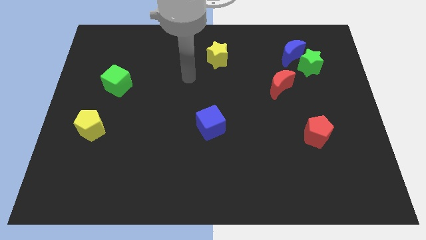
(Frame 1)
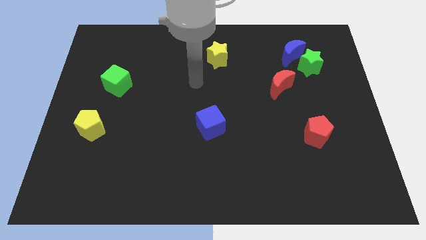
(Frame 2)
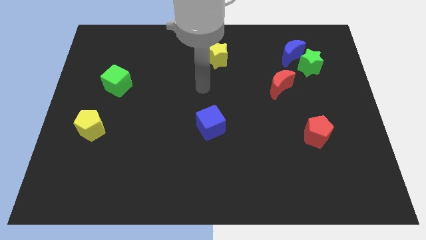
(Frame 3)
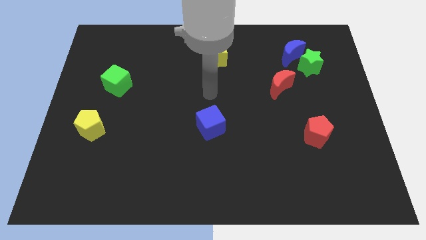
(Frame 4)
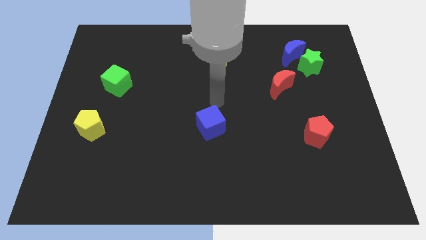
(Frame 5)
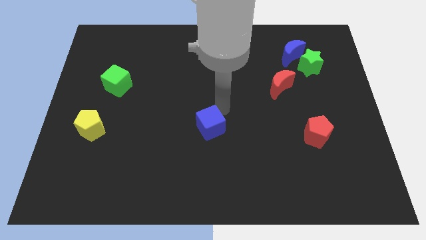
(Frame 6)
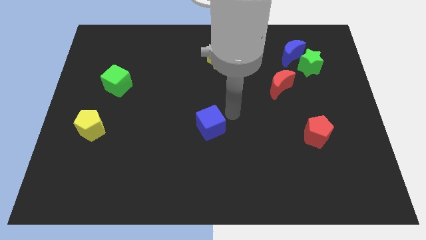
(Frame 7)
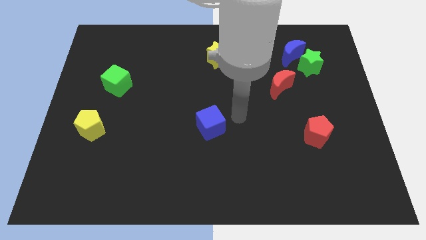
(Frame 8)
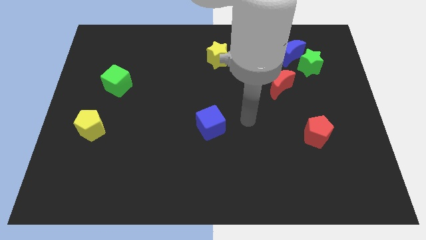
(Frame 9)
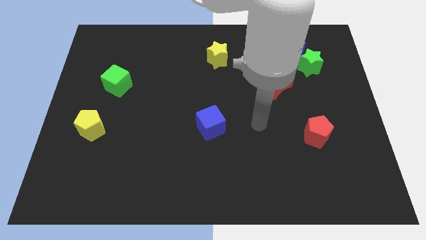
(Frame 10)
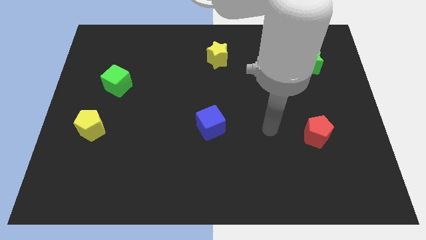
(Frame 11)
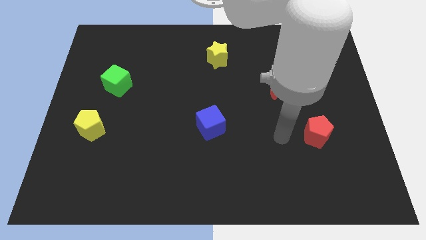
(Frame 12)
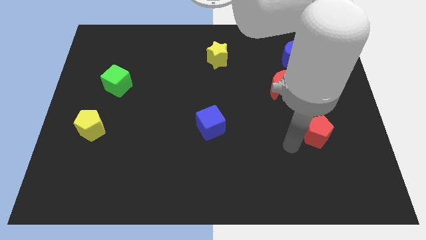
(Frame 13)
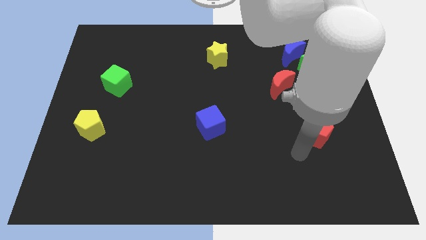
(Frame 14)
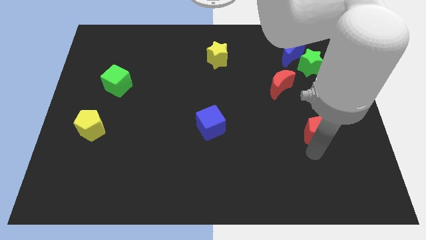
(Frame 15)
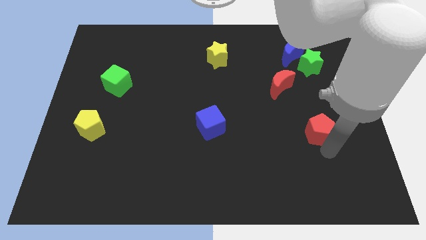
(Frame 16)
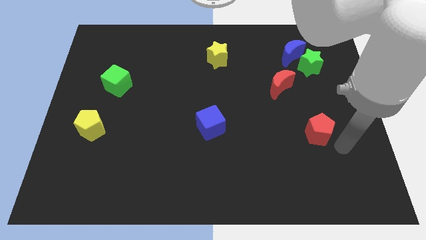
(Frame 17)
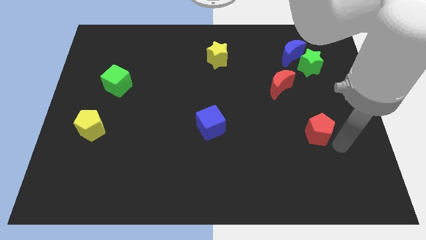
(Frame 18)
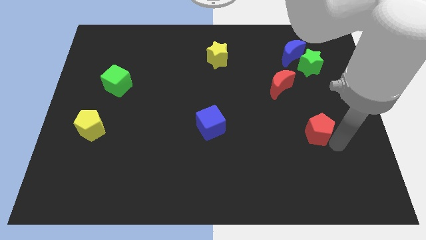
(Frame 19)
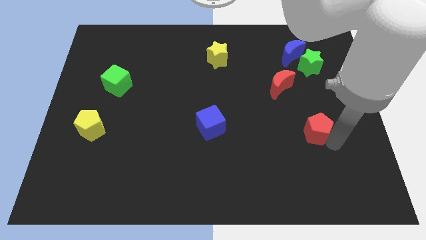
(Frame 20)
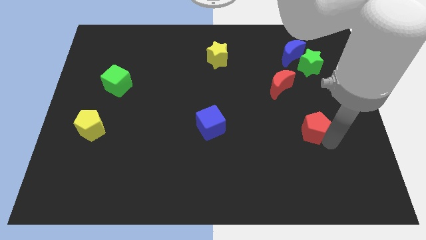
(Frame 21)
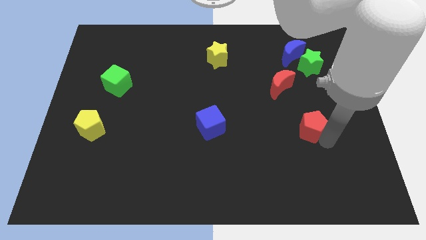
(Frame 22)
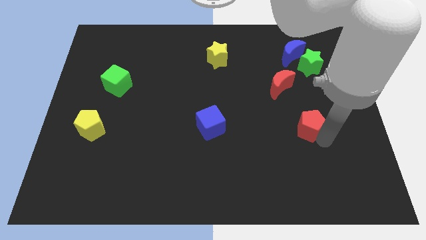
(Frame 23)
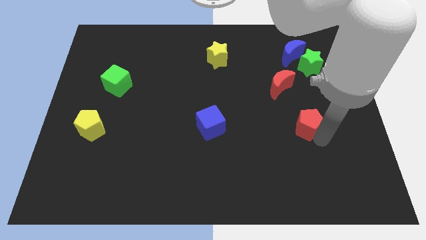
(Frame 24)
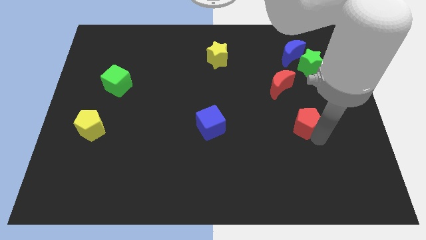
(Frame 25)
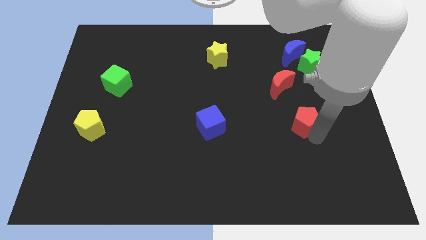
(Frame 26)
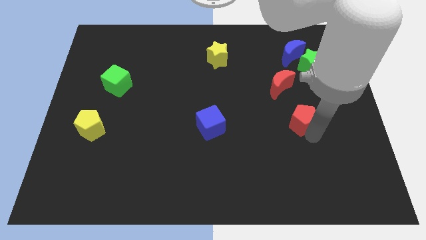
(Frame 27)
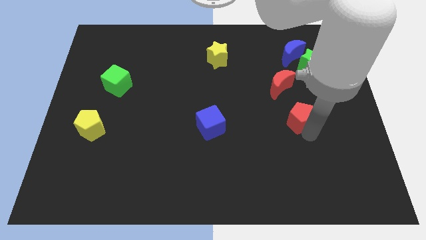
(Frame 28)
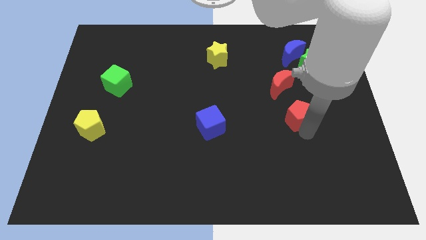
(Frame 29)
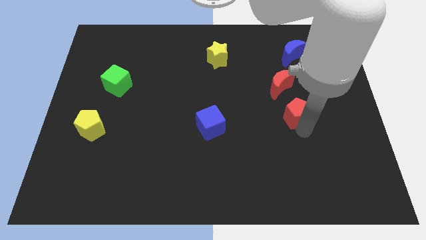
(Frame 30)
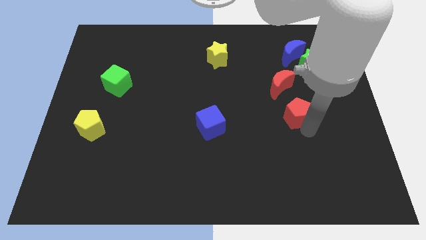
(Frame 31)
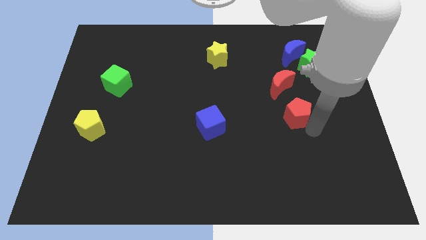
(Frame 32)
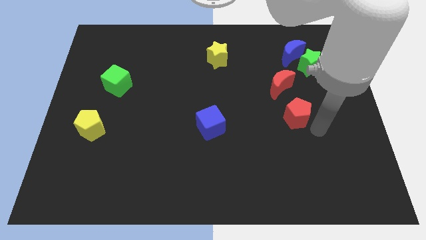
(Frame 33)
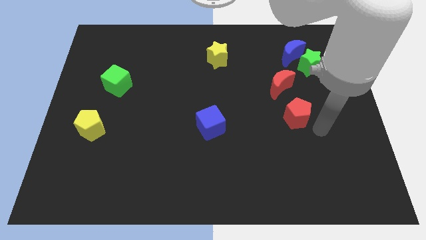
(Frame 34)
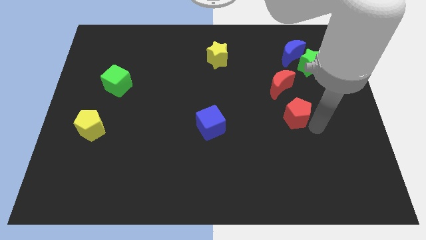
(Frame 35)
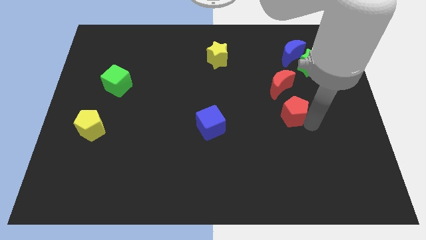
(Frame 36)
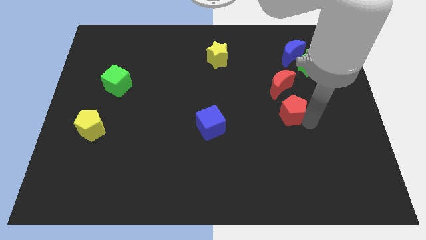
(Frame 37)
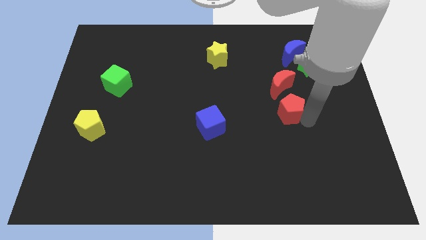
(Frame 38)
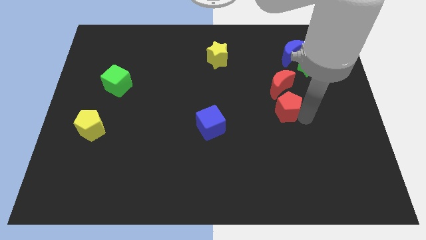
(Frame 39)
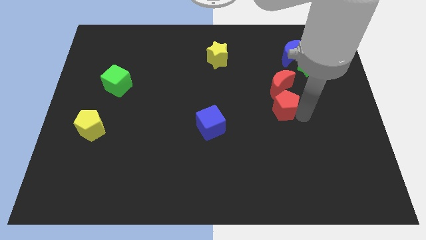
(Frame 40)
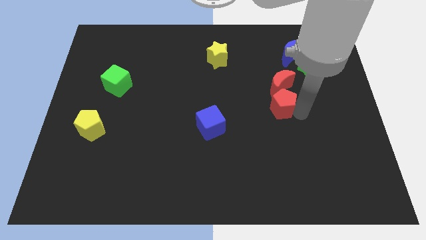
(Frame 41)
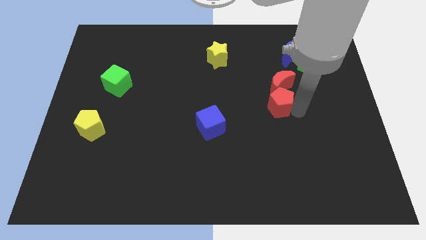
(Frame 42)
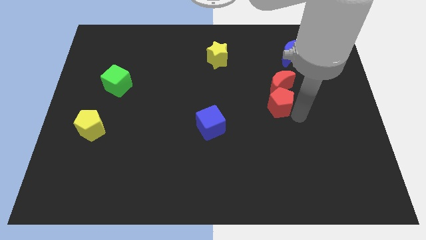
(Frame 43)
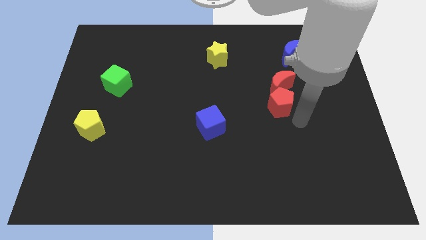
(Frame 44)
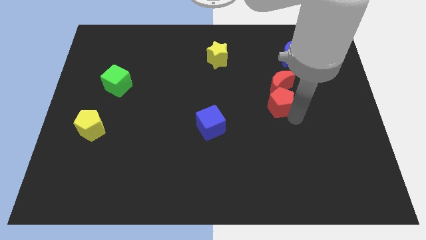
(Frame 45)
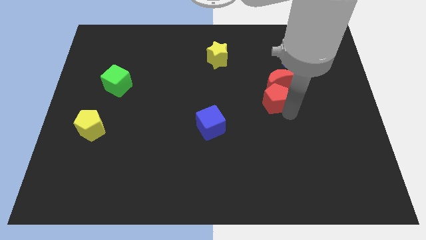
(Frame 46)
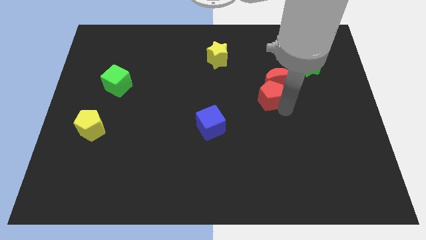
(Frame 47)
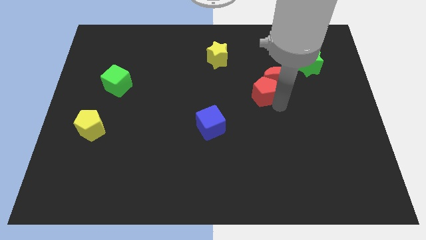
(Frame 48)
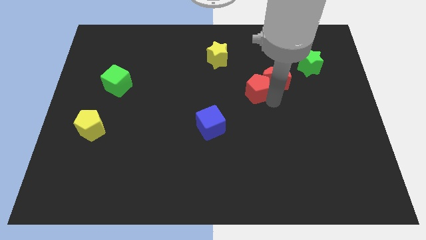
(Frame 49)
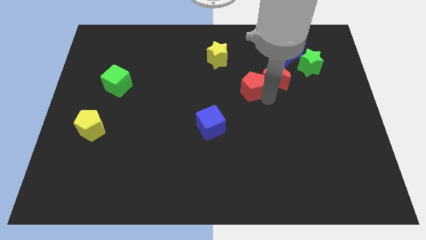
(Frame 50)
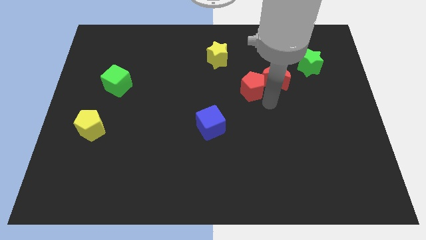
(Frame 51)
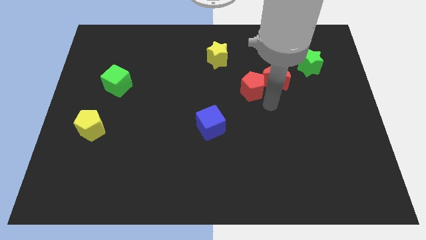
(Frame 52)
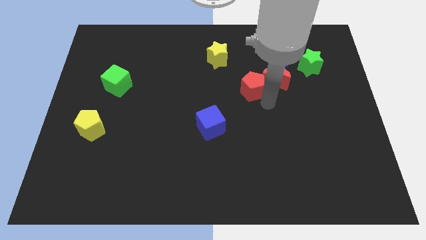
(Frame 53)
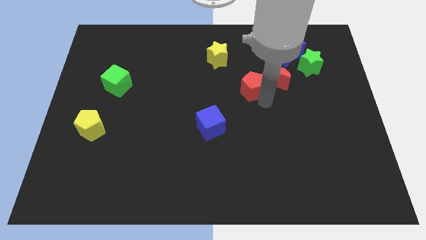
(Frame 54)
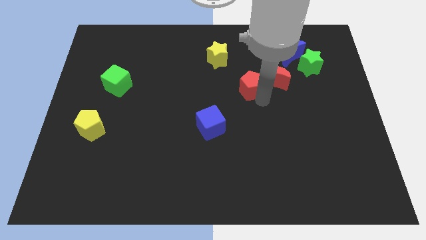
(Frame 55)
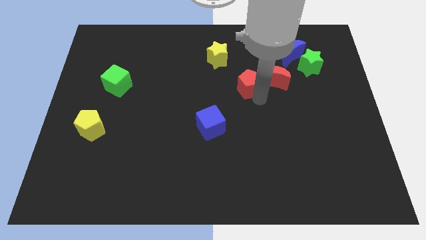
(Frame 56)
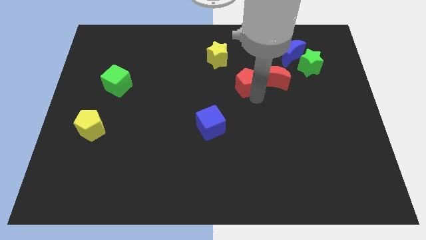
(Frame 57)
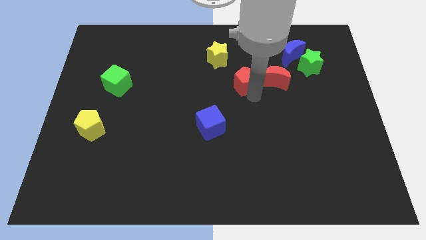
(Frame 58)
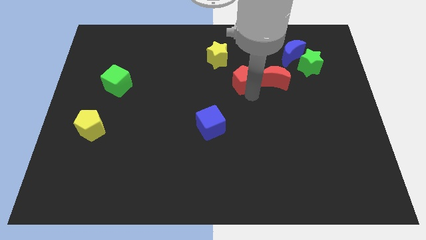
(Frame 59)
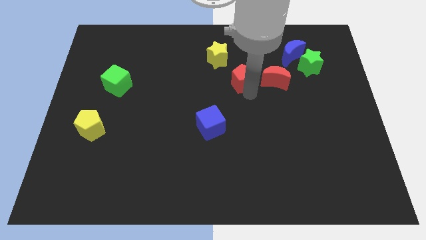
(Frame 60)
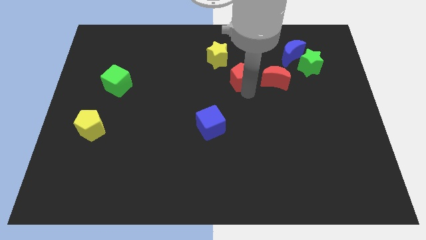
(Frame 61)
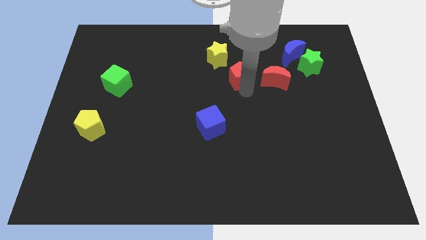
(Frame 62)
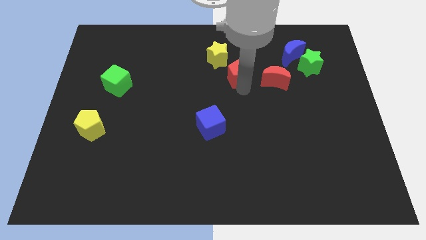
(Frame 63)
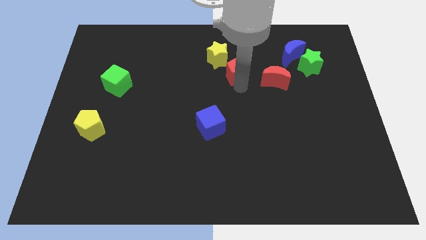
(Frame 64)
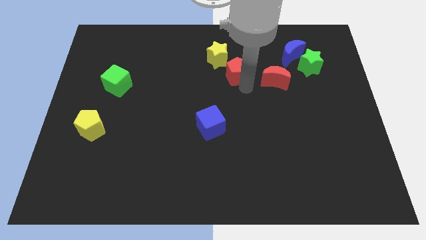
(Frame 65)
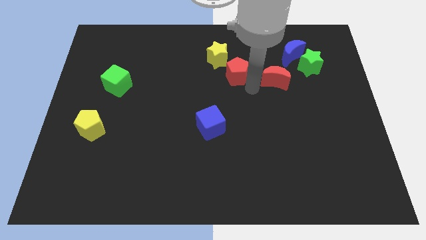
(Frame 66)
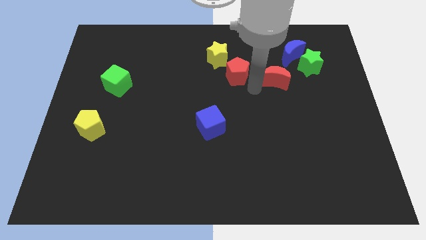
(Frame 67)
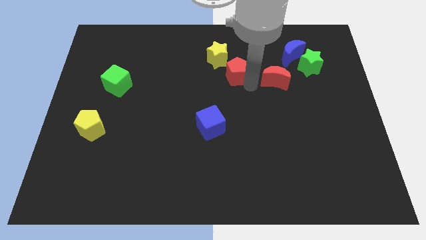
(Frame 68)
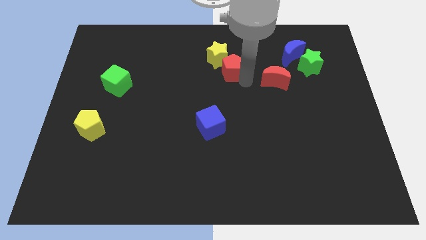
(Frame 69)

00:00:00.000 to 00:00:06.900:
push the red pentagon close to the yellow star
